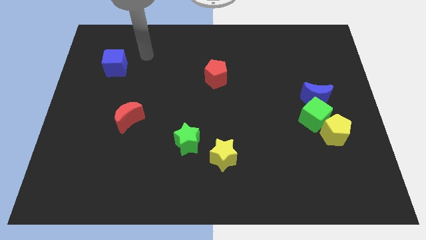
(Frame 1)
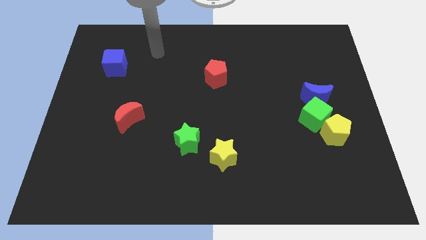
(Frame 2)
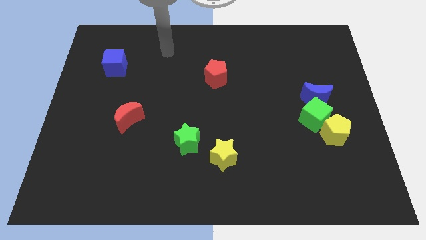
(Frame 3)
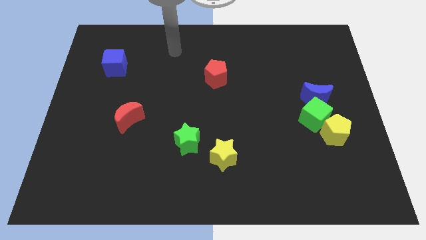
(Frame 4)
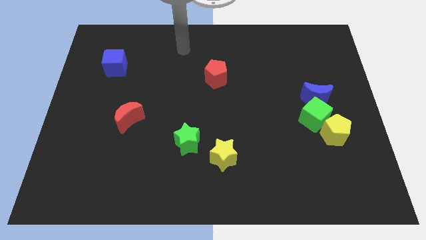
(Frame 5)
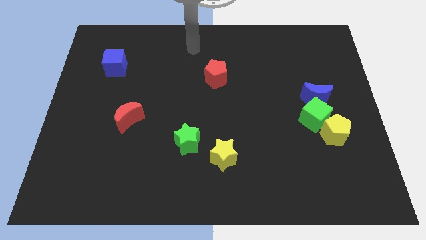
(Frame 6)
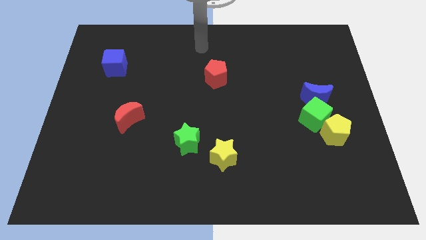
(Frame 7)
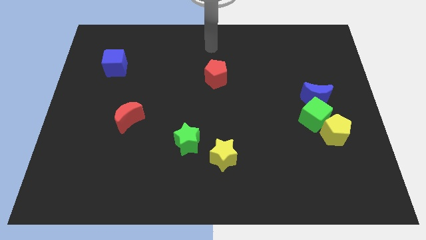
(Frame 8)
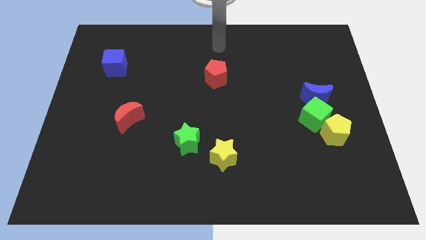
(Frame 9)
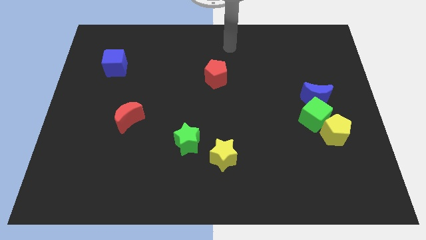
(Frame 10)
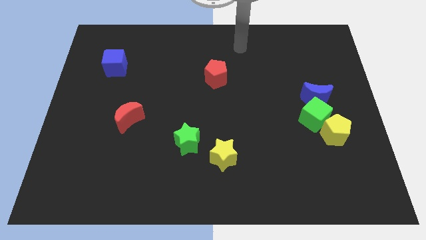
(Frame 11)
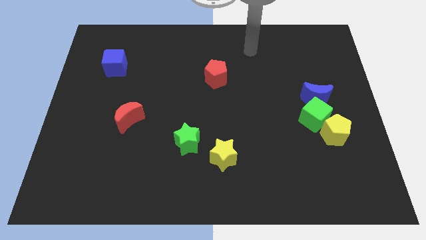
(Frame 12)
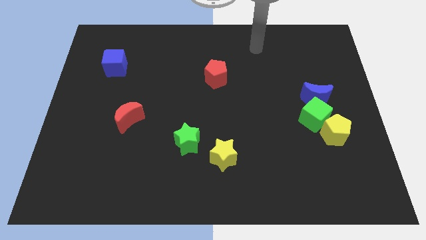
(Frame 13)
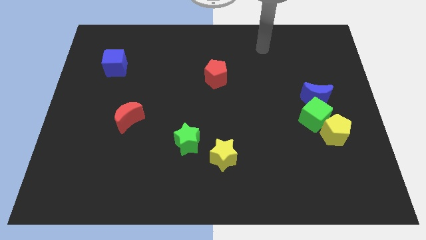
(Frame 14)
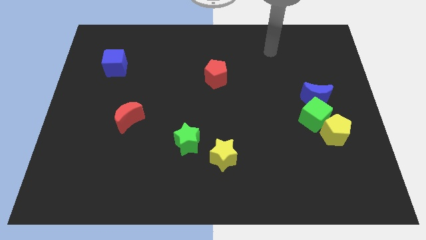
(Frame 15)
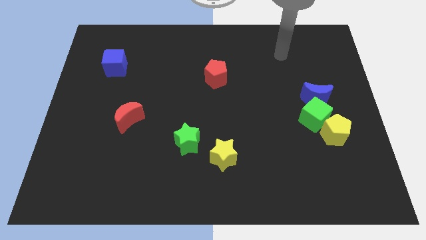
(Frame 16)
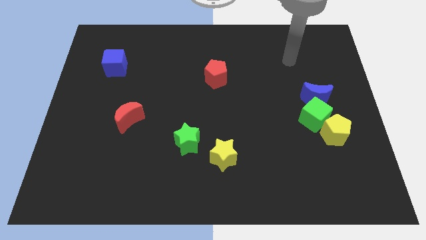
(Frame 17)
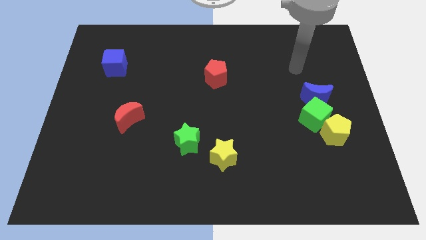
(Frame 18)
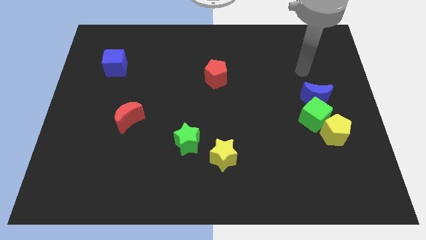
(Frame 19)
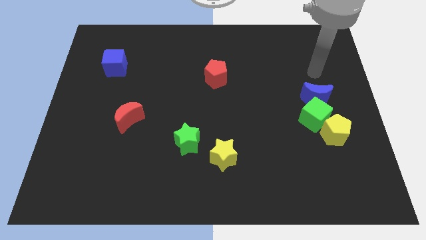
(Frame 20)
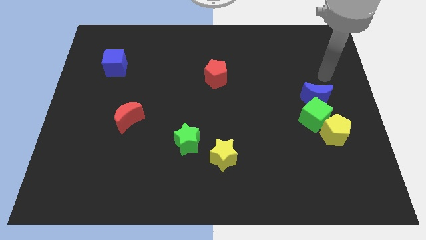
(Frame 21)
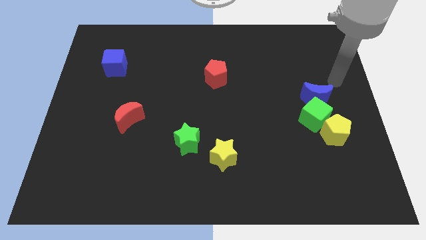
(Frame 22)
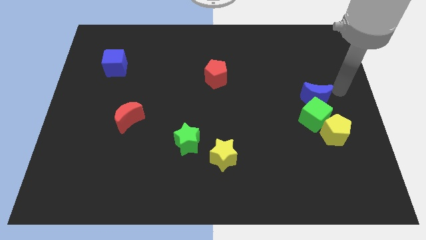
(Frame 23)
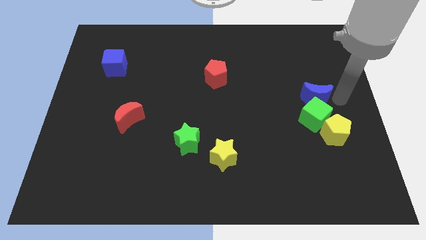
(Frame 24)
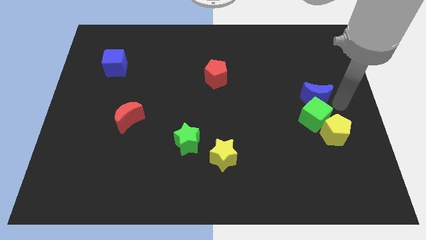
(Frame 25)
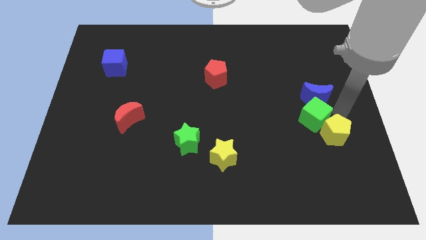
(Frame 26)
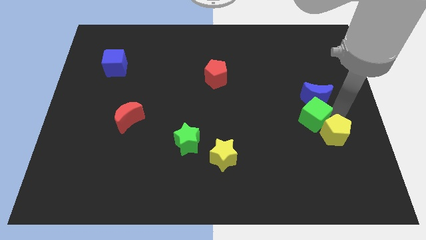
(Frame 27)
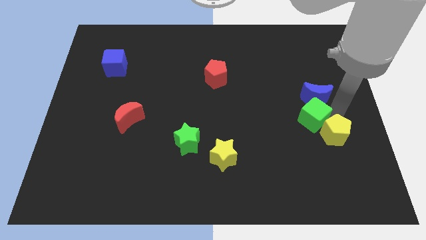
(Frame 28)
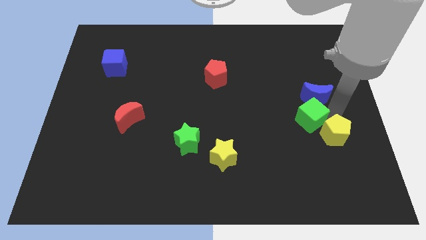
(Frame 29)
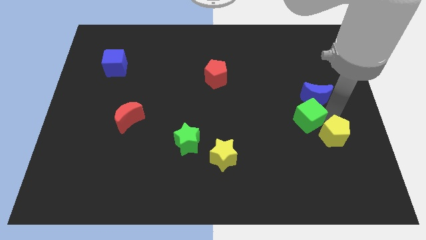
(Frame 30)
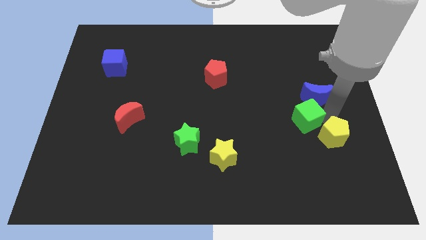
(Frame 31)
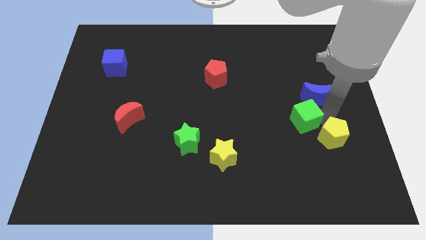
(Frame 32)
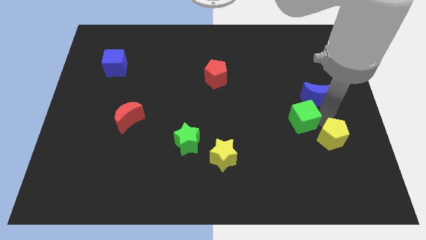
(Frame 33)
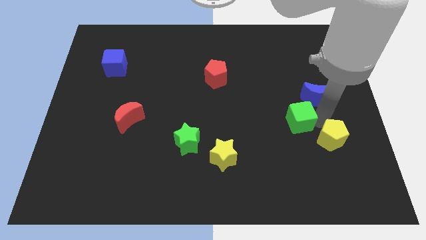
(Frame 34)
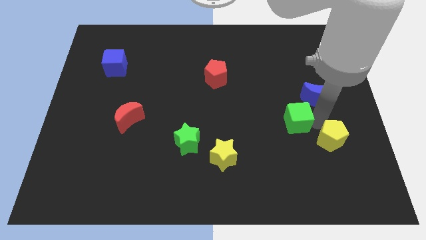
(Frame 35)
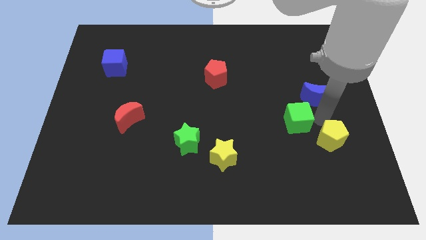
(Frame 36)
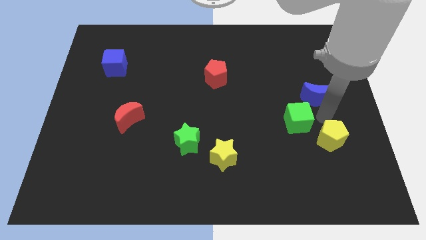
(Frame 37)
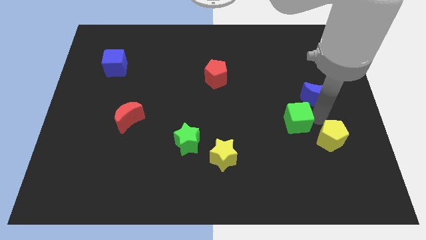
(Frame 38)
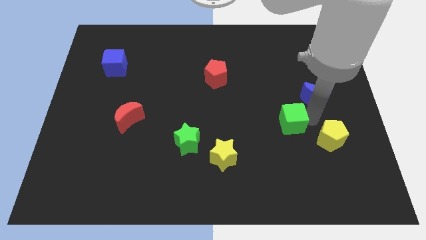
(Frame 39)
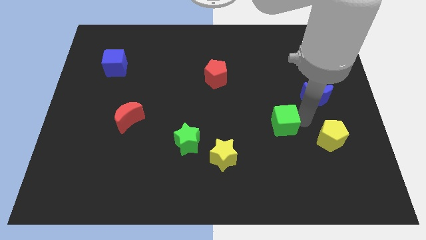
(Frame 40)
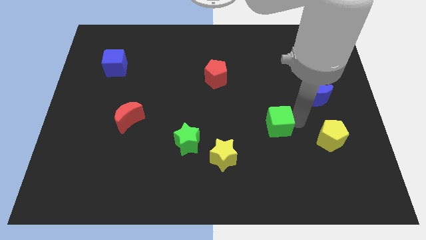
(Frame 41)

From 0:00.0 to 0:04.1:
move the green cube away from the yellow pentagon and blue moon

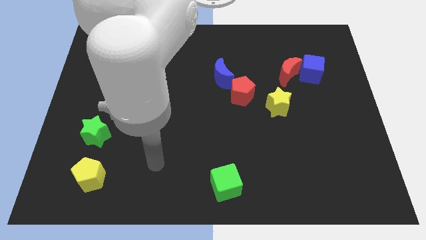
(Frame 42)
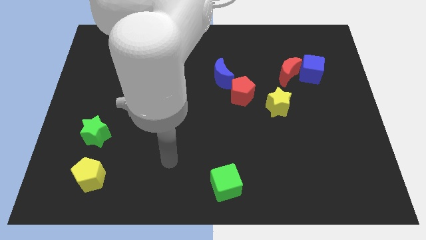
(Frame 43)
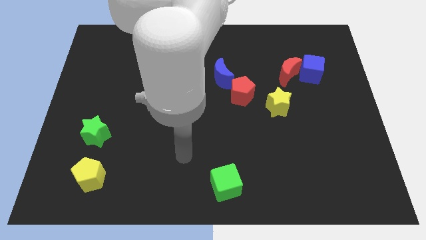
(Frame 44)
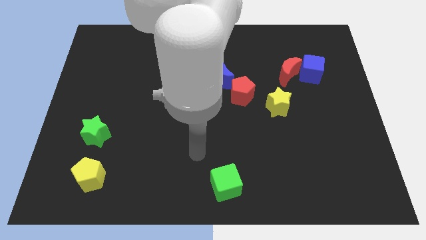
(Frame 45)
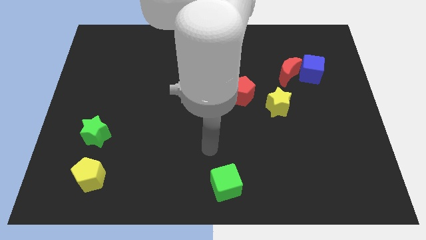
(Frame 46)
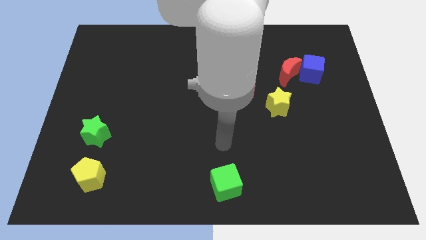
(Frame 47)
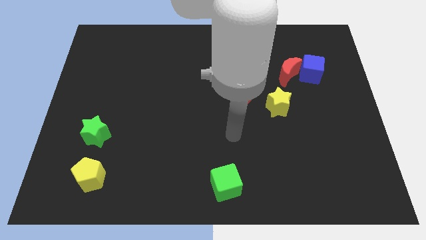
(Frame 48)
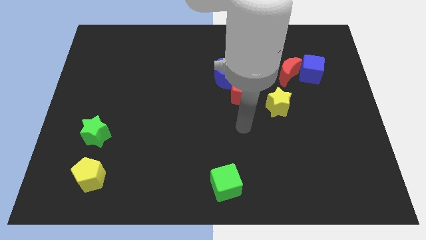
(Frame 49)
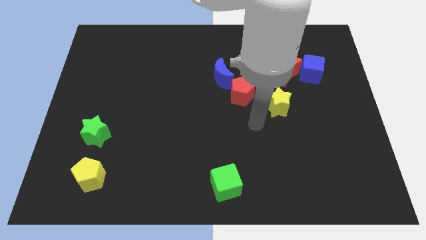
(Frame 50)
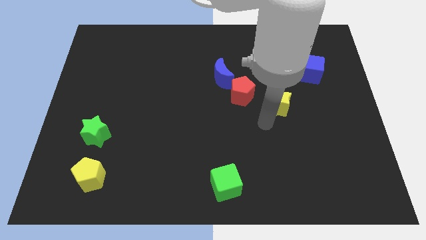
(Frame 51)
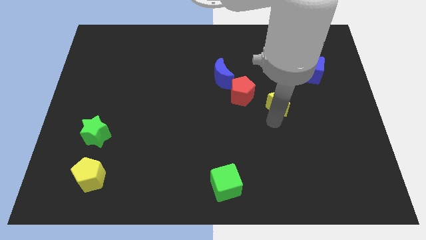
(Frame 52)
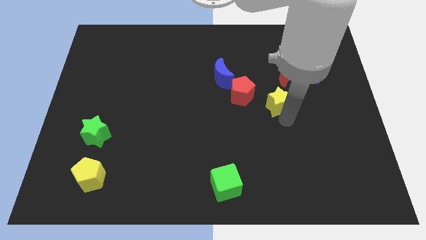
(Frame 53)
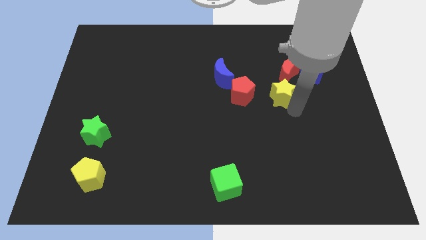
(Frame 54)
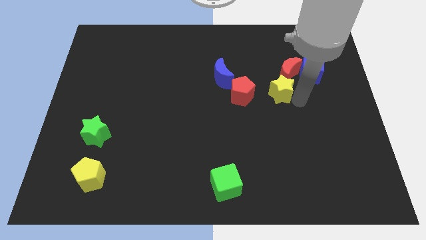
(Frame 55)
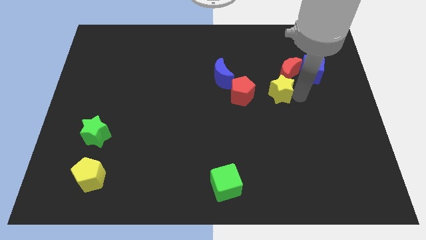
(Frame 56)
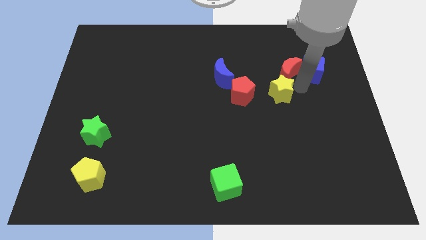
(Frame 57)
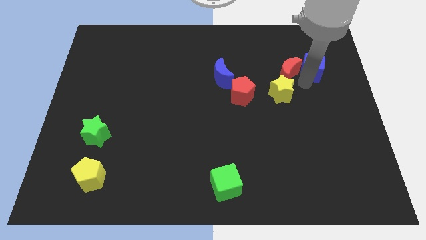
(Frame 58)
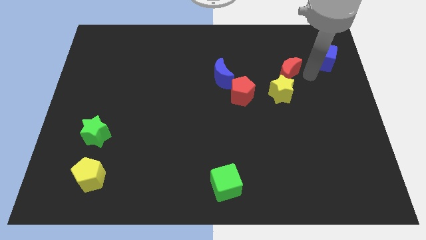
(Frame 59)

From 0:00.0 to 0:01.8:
move the red moon away from the blue cube

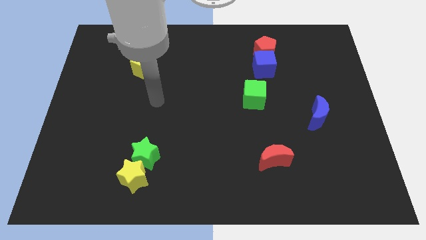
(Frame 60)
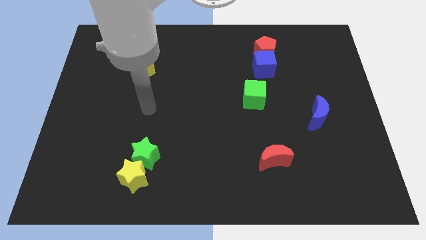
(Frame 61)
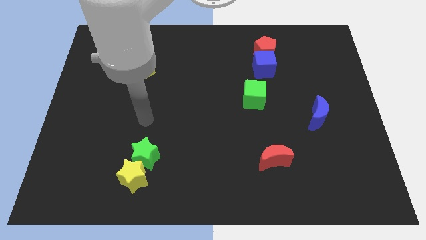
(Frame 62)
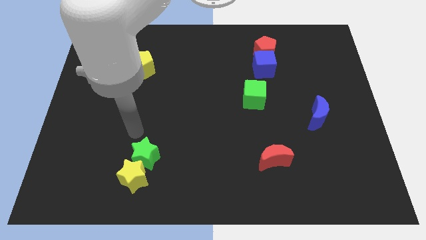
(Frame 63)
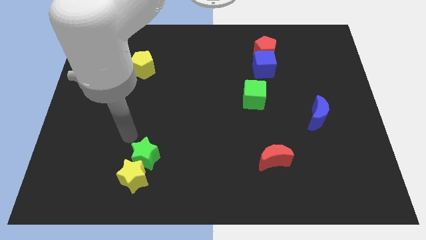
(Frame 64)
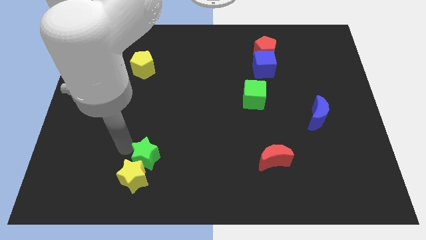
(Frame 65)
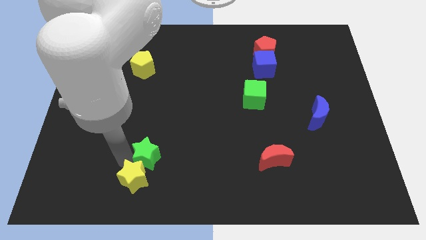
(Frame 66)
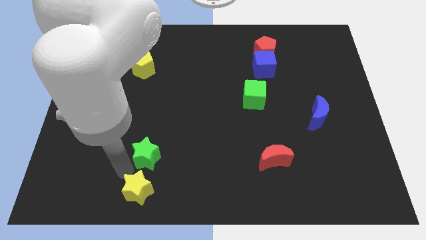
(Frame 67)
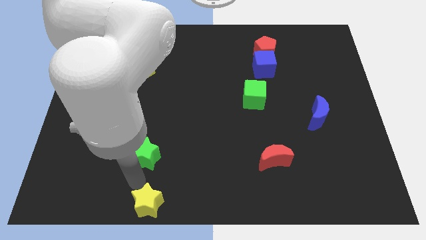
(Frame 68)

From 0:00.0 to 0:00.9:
separate the green star from the yellow star

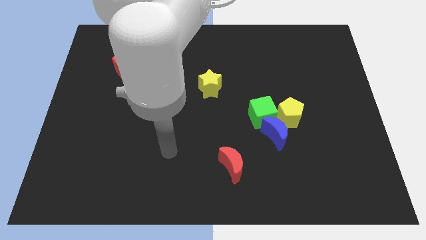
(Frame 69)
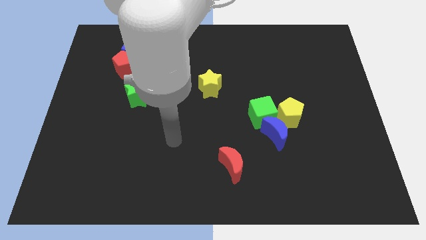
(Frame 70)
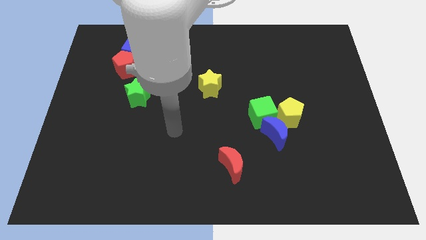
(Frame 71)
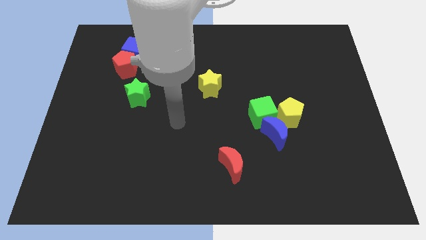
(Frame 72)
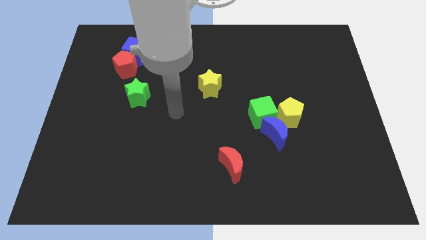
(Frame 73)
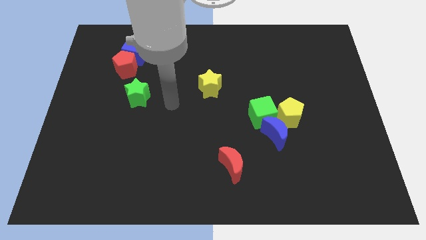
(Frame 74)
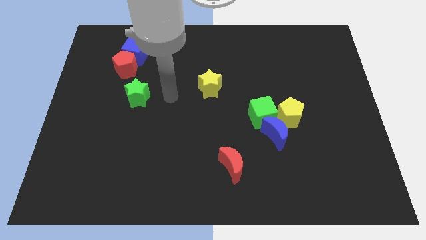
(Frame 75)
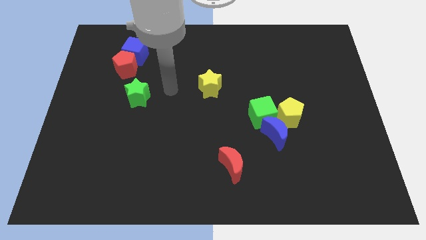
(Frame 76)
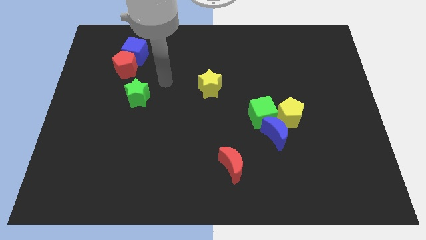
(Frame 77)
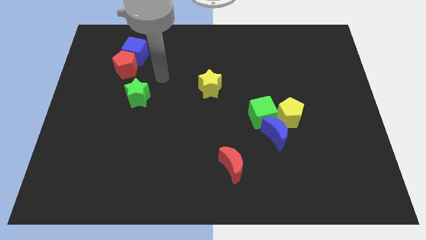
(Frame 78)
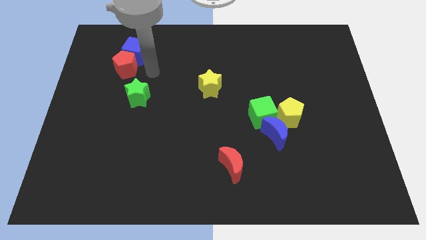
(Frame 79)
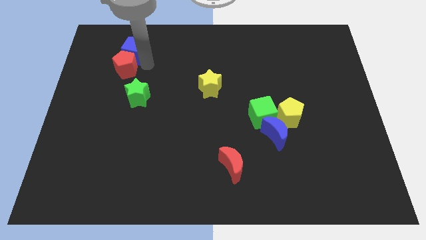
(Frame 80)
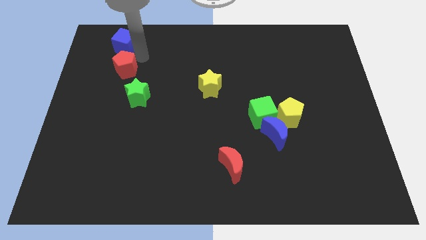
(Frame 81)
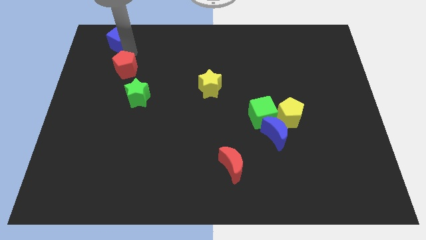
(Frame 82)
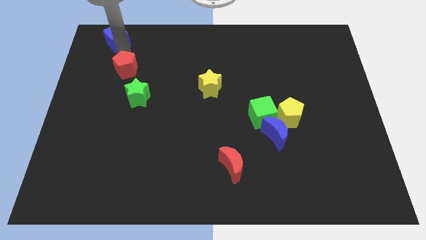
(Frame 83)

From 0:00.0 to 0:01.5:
separate the red pentagon from the blue cube

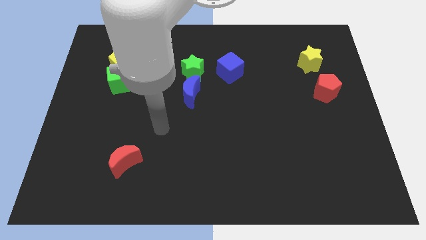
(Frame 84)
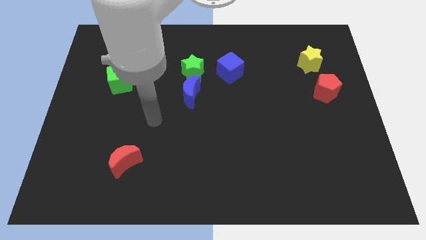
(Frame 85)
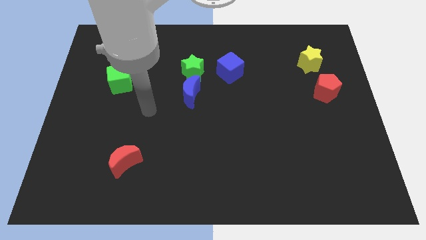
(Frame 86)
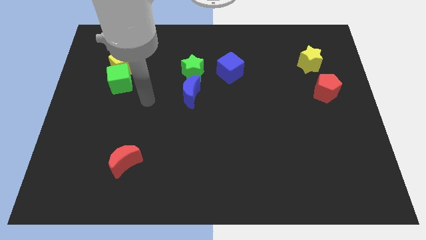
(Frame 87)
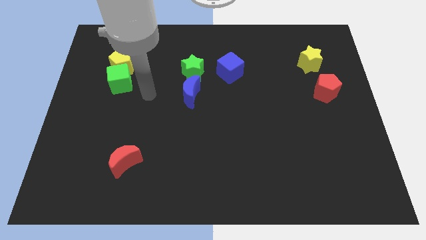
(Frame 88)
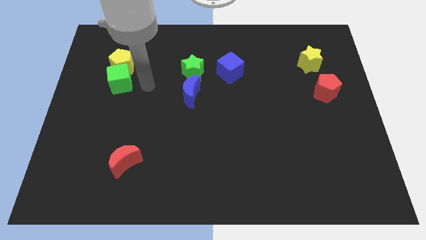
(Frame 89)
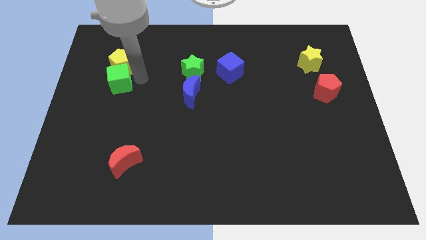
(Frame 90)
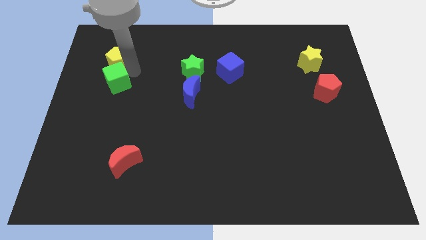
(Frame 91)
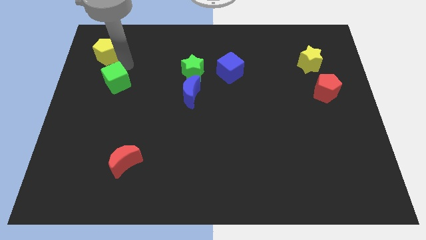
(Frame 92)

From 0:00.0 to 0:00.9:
pull the green cube apart from the yellow pentagon
